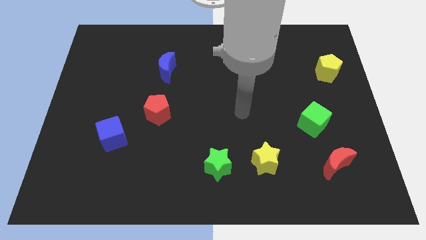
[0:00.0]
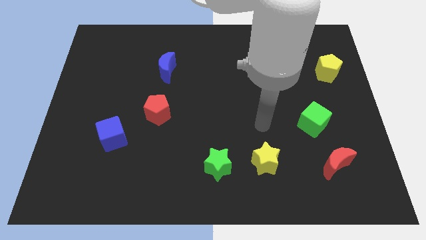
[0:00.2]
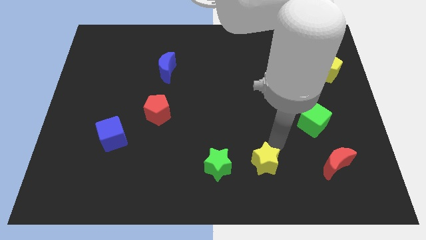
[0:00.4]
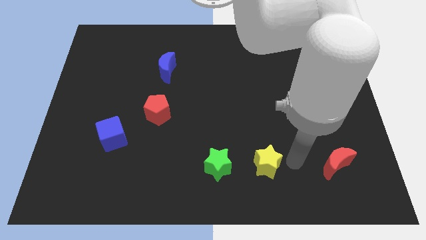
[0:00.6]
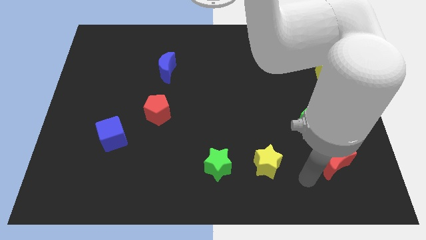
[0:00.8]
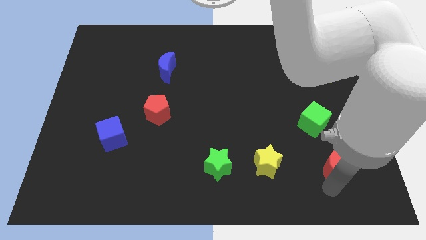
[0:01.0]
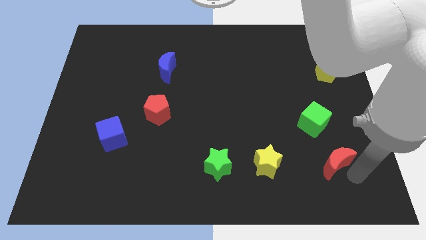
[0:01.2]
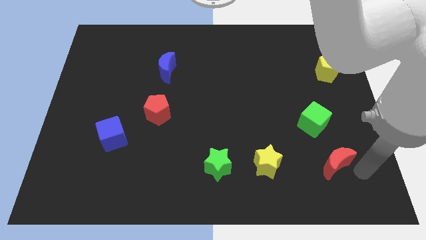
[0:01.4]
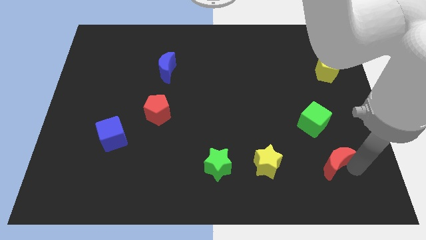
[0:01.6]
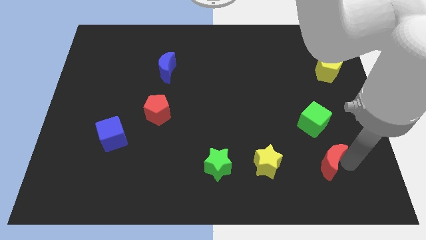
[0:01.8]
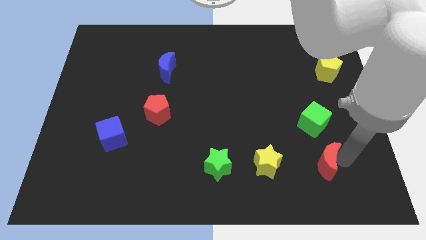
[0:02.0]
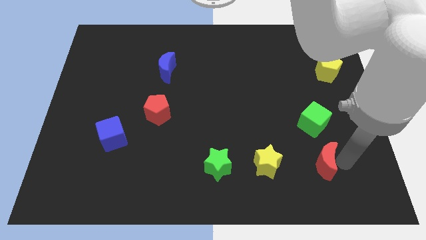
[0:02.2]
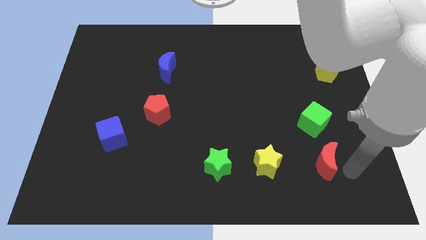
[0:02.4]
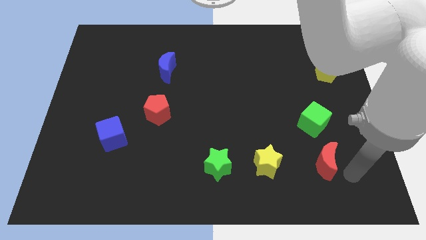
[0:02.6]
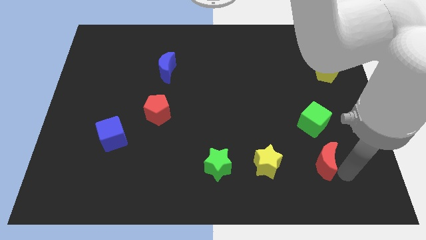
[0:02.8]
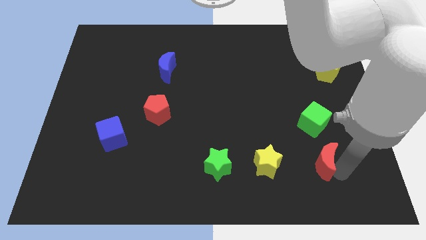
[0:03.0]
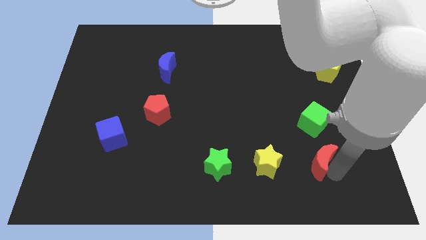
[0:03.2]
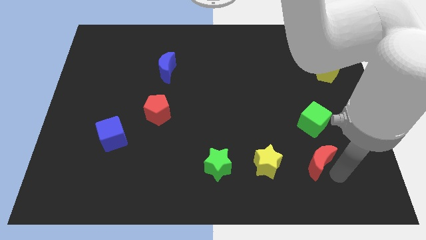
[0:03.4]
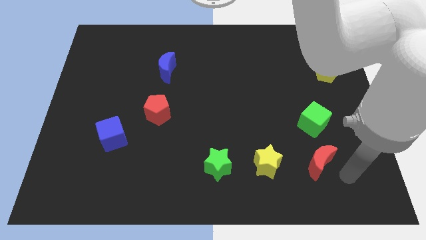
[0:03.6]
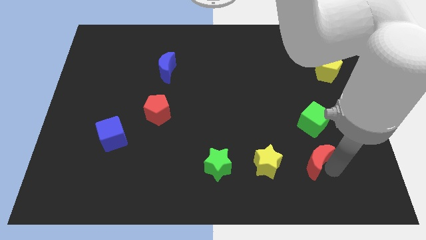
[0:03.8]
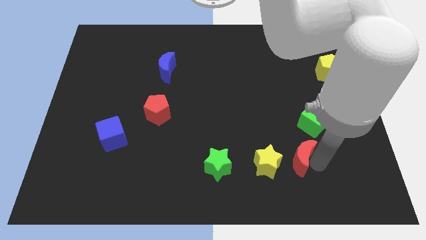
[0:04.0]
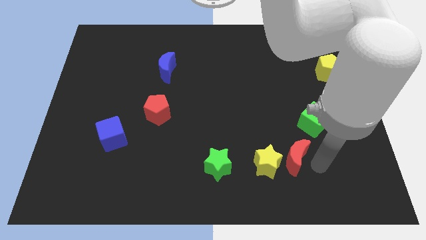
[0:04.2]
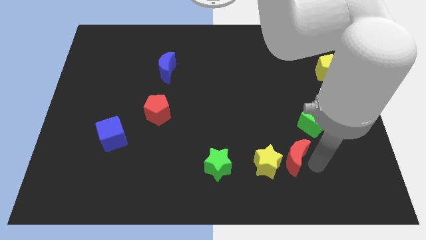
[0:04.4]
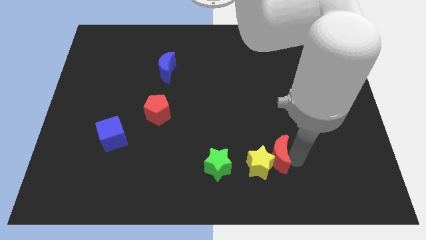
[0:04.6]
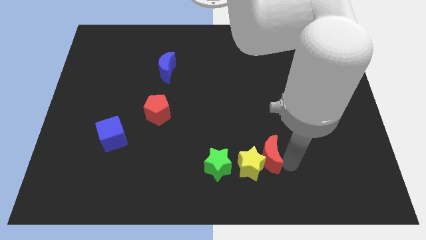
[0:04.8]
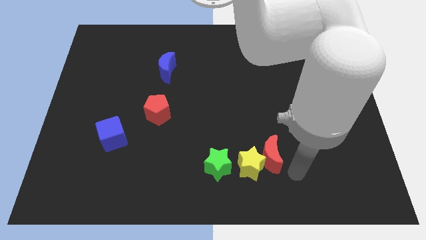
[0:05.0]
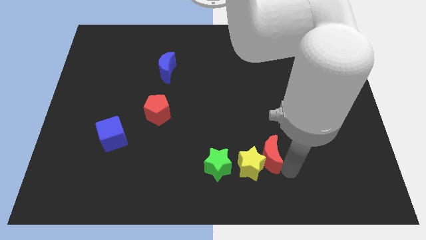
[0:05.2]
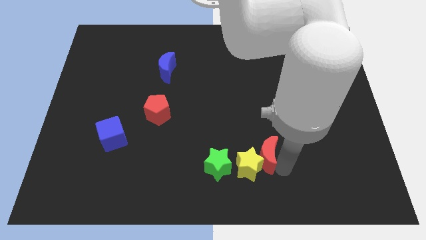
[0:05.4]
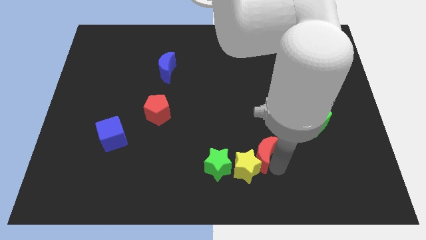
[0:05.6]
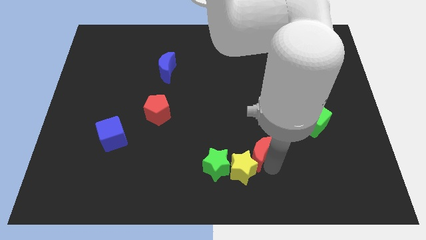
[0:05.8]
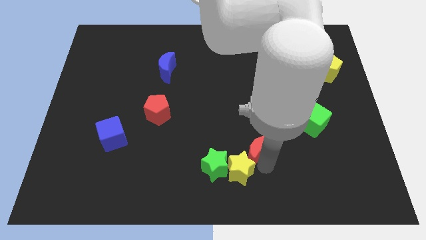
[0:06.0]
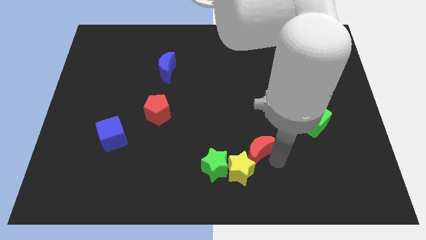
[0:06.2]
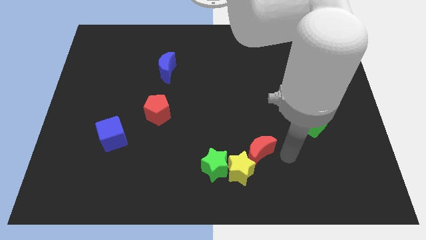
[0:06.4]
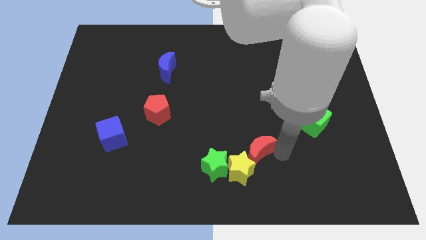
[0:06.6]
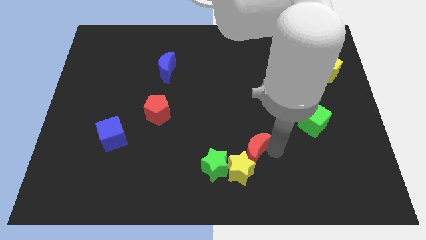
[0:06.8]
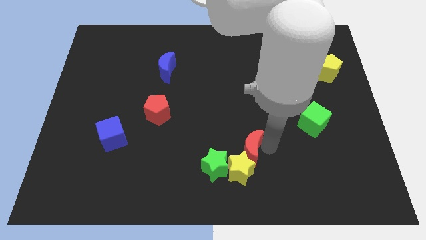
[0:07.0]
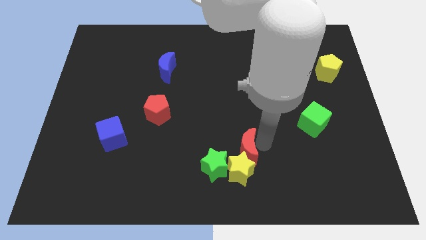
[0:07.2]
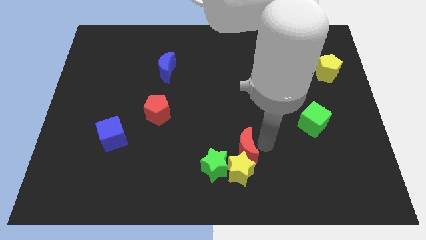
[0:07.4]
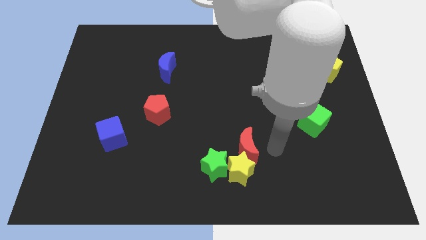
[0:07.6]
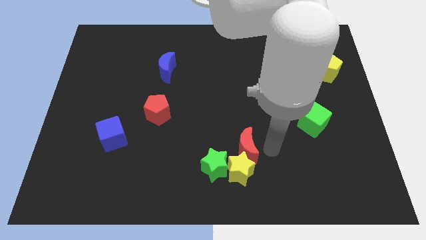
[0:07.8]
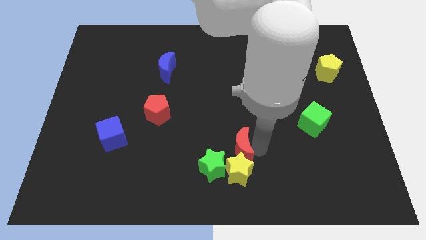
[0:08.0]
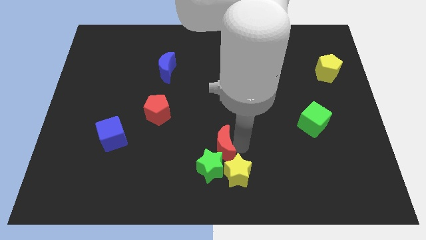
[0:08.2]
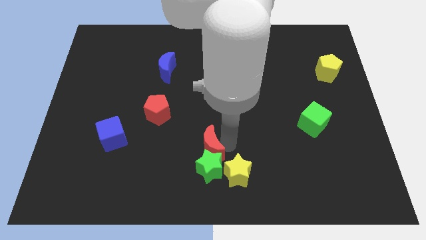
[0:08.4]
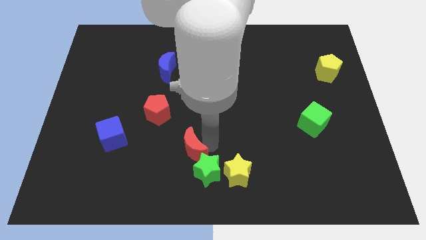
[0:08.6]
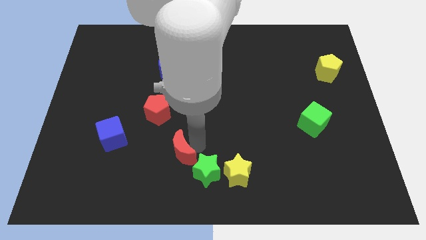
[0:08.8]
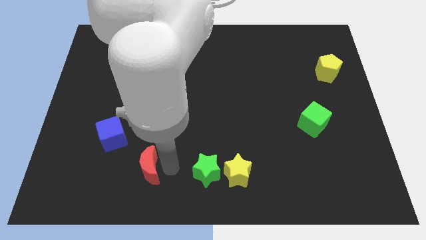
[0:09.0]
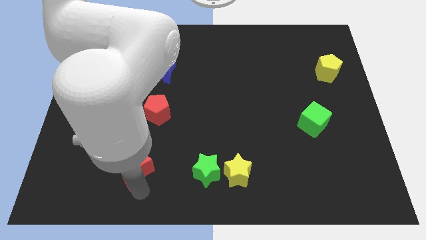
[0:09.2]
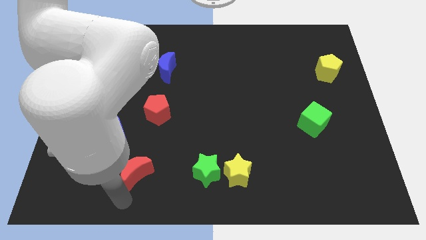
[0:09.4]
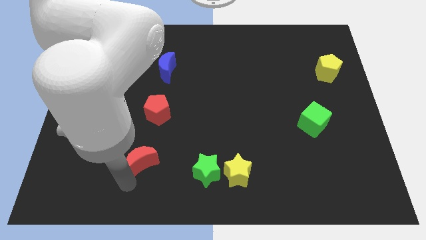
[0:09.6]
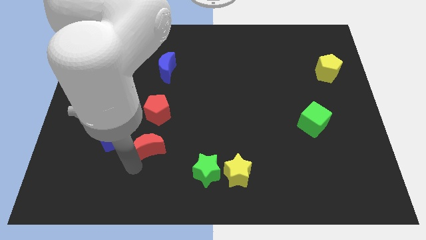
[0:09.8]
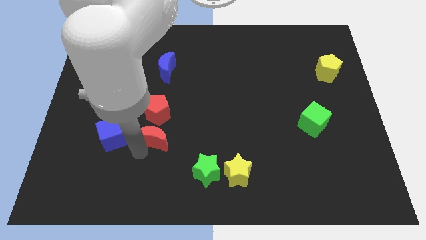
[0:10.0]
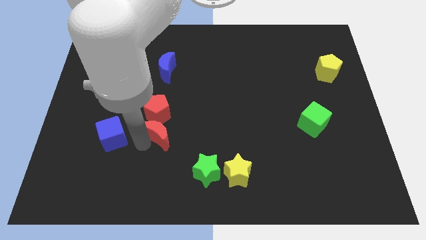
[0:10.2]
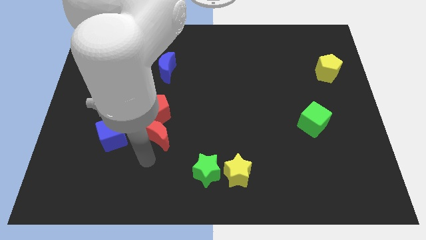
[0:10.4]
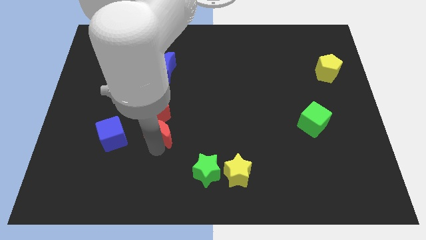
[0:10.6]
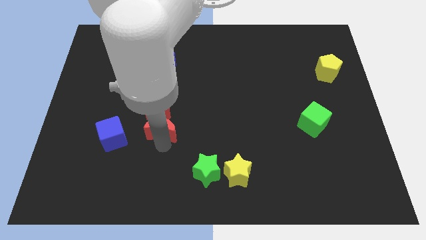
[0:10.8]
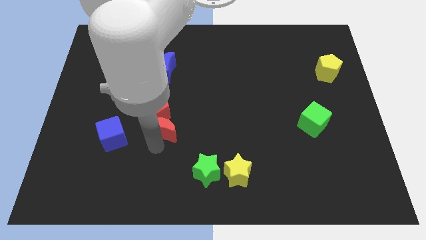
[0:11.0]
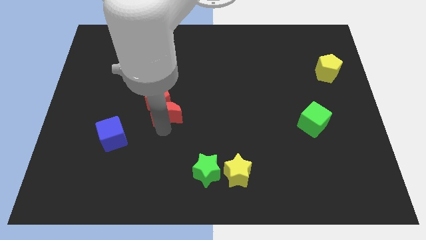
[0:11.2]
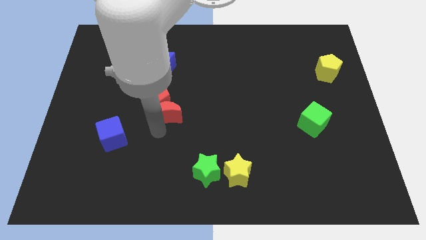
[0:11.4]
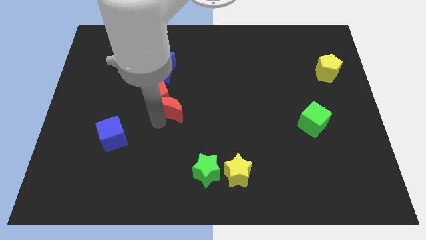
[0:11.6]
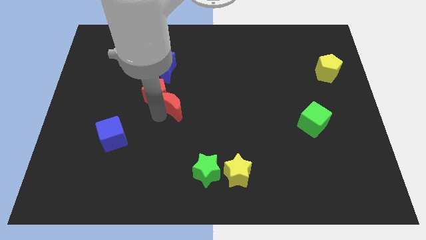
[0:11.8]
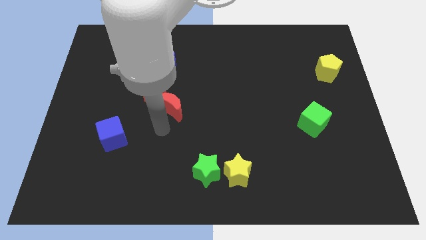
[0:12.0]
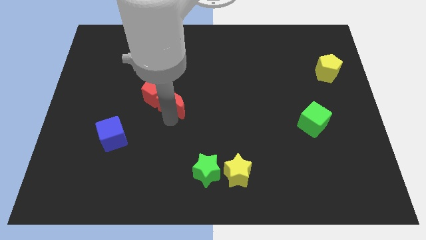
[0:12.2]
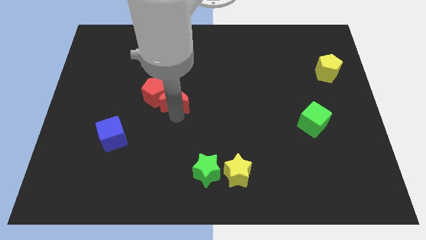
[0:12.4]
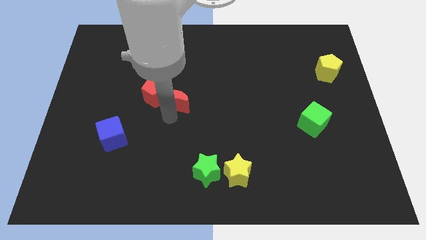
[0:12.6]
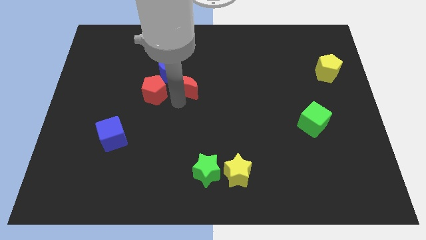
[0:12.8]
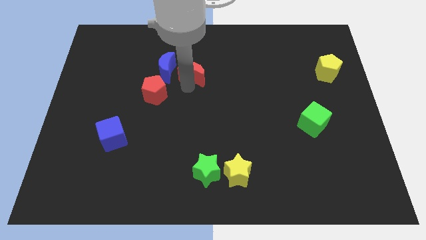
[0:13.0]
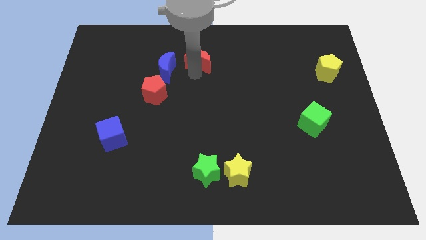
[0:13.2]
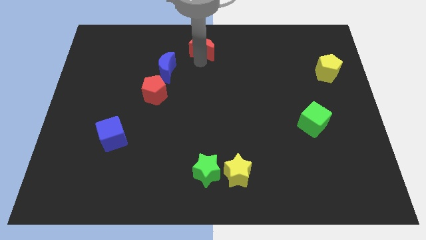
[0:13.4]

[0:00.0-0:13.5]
slide the red moon to the towards your base
